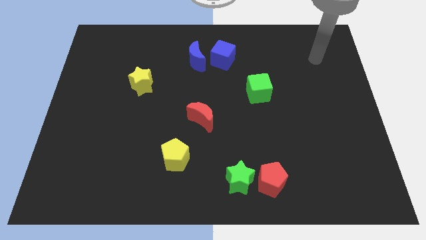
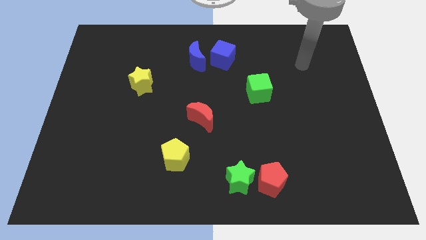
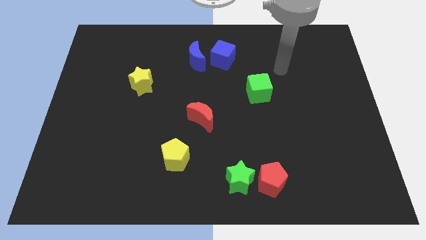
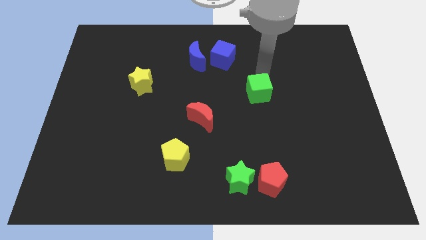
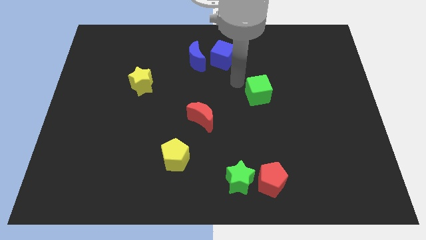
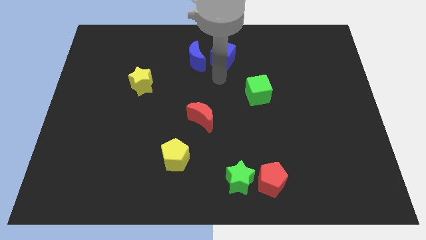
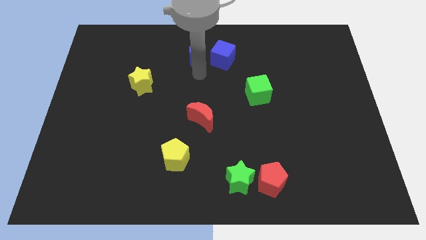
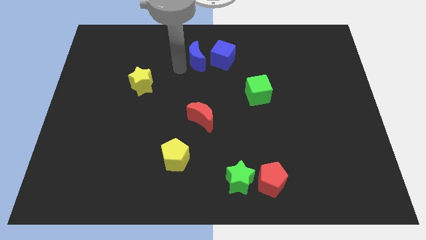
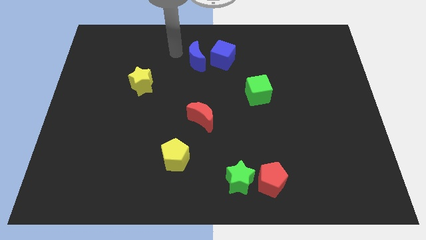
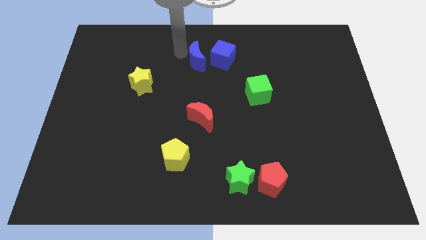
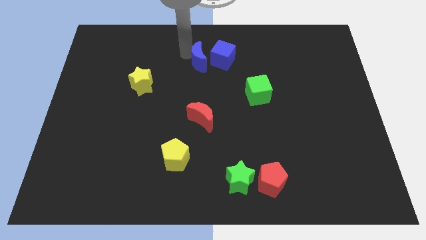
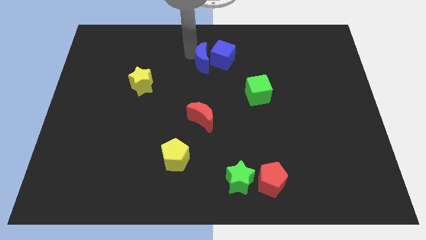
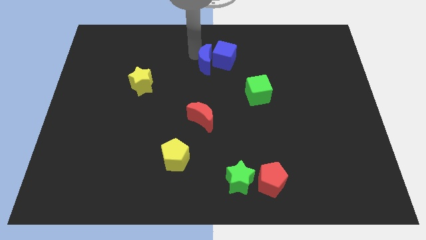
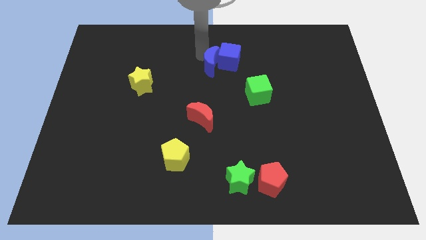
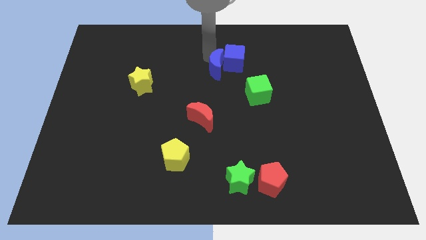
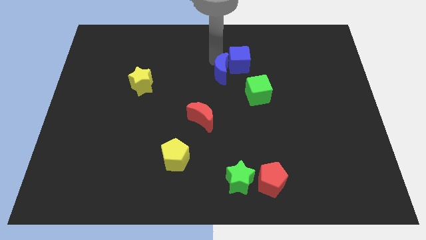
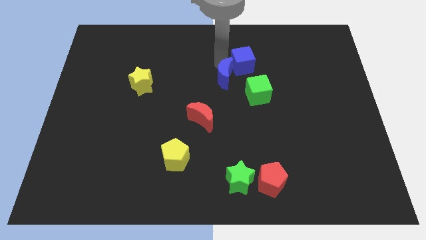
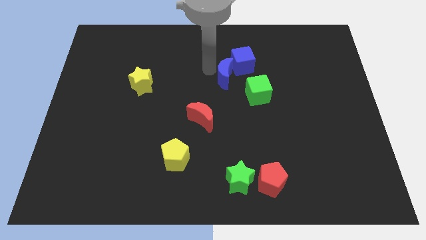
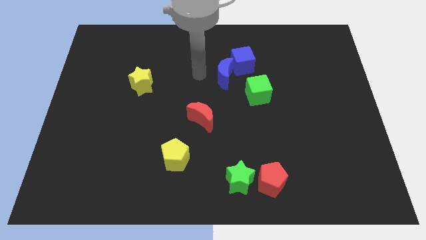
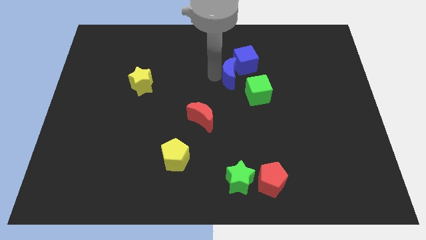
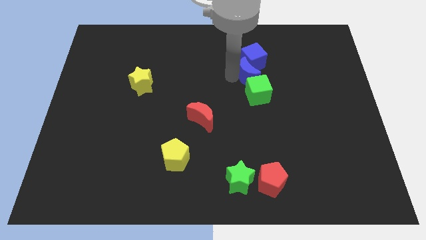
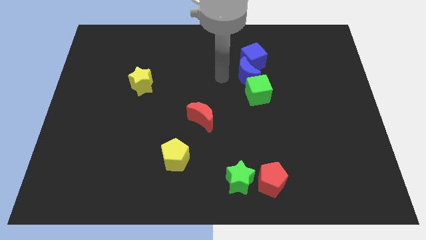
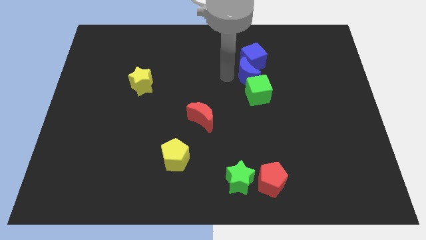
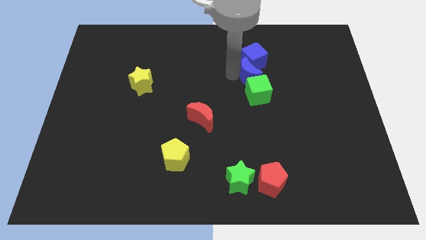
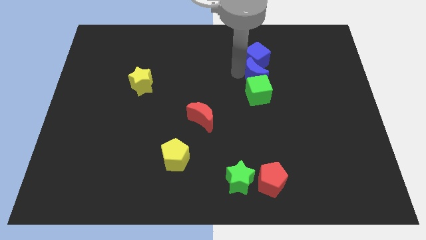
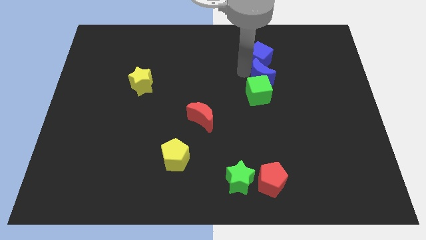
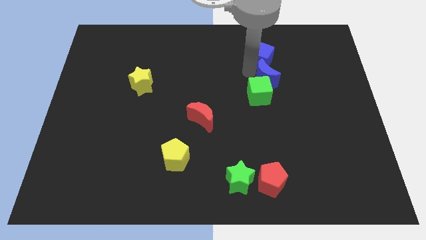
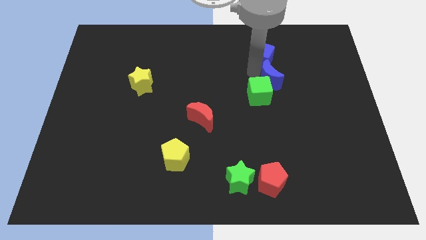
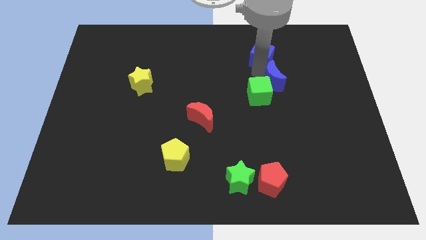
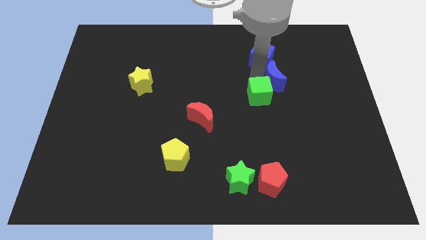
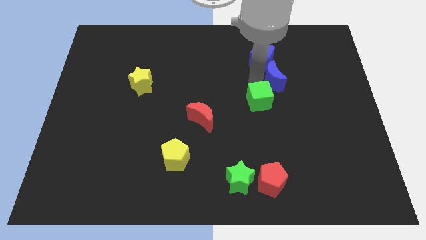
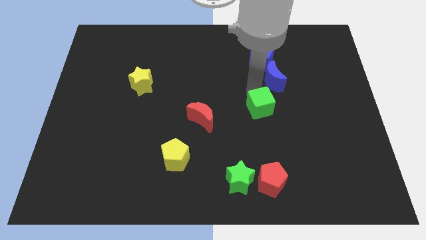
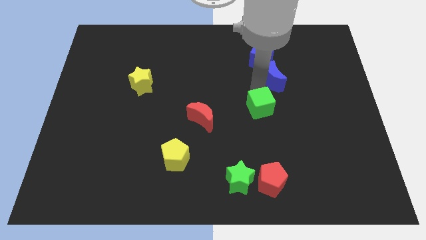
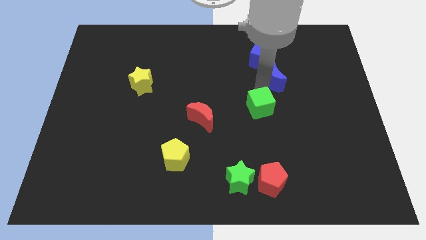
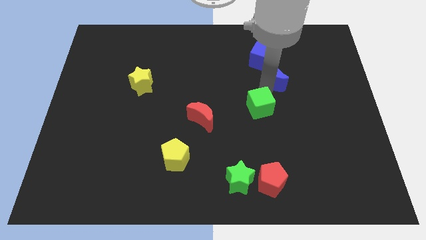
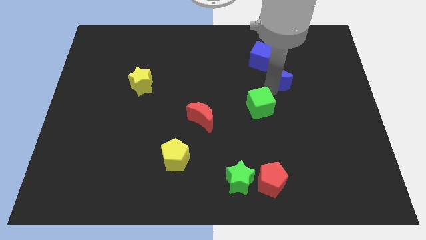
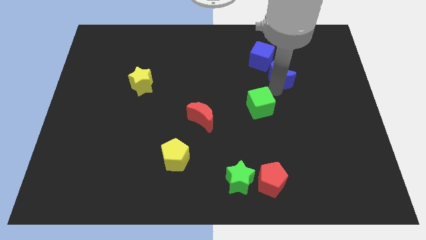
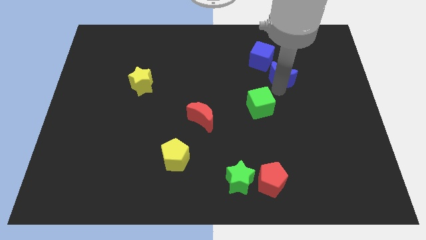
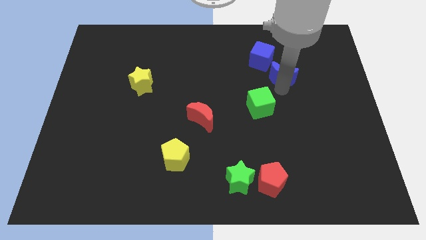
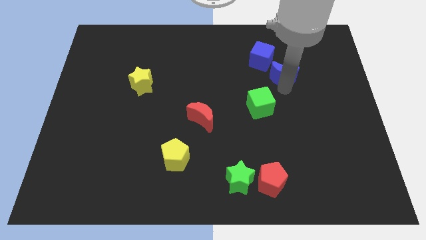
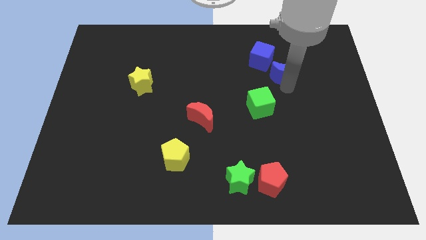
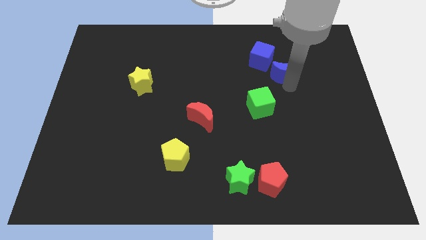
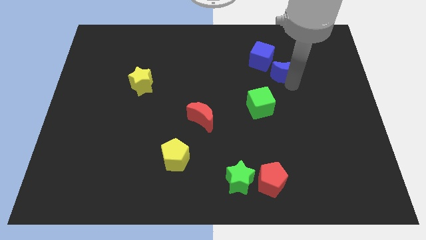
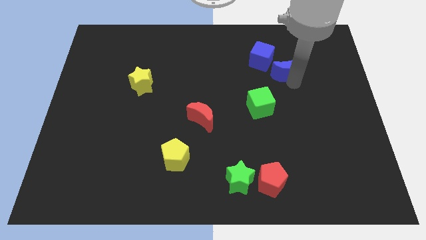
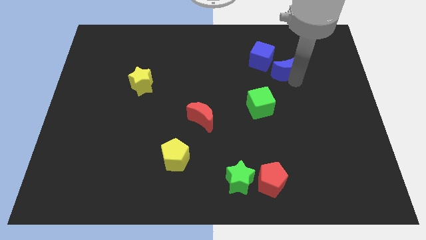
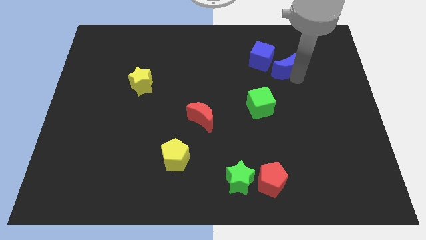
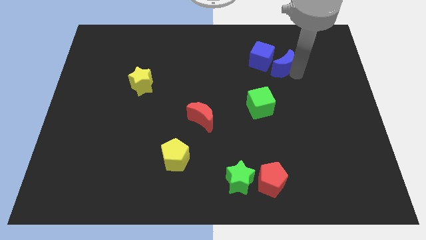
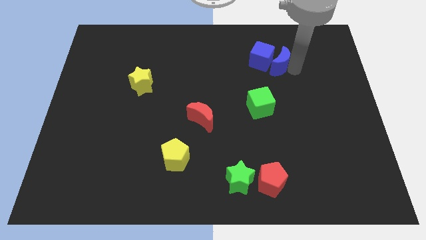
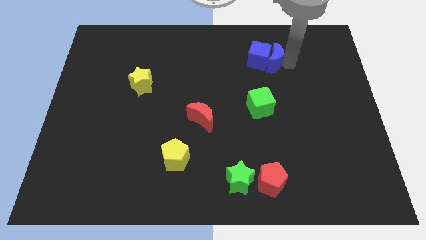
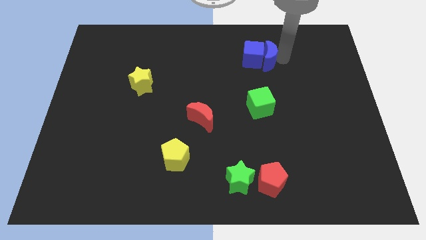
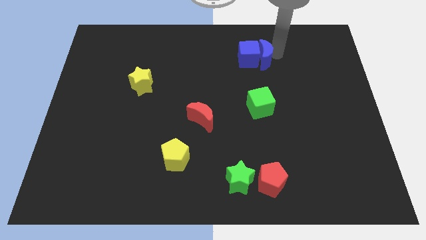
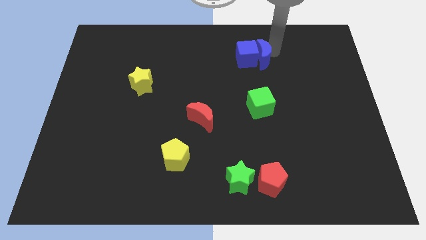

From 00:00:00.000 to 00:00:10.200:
move the blue moon diagonally down and to the right of the blue cube

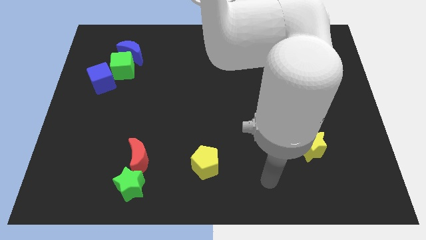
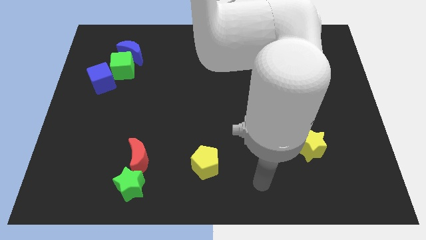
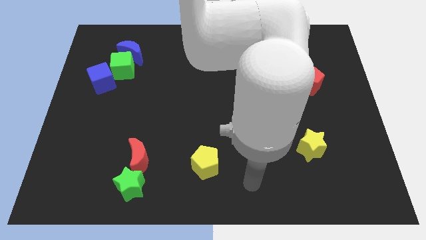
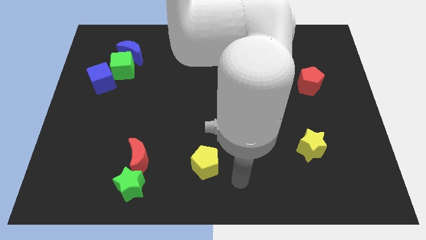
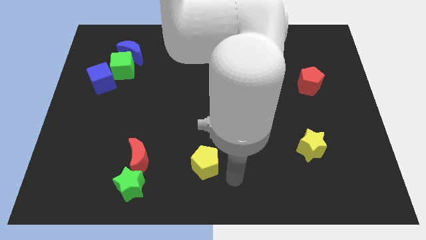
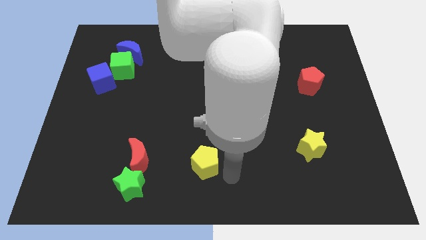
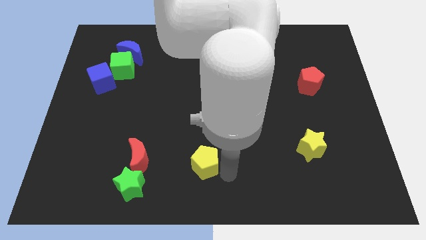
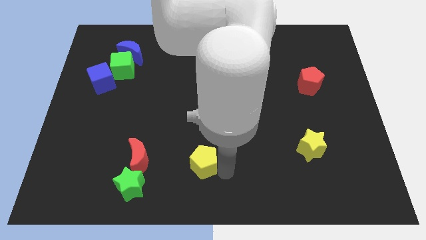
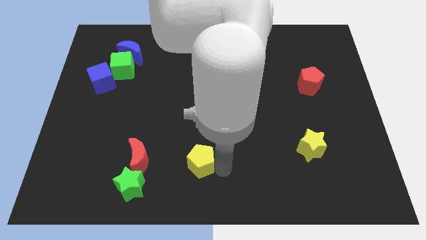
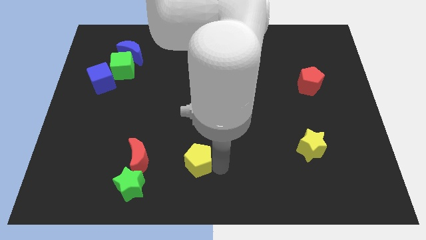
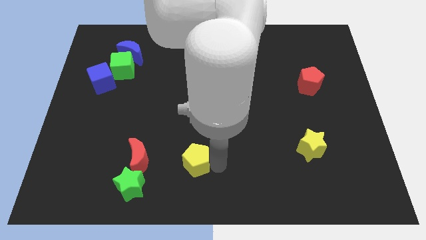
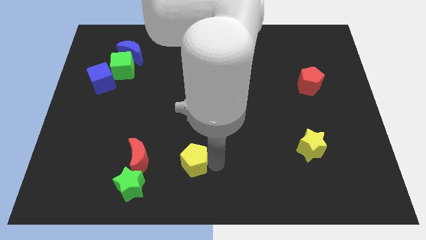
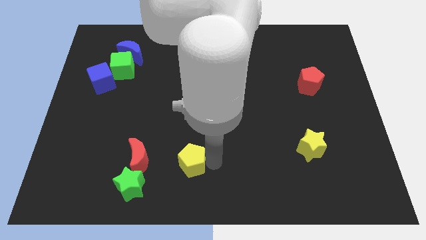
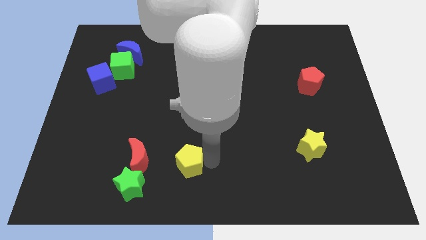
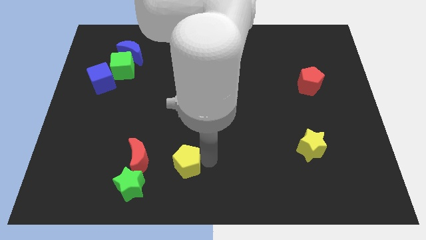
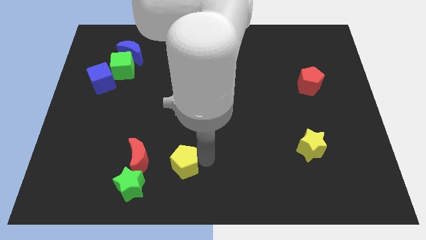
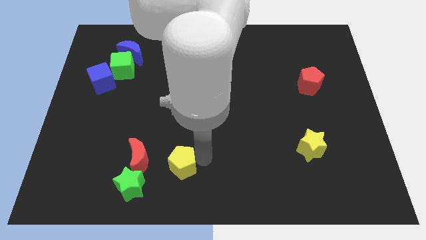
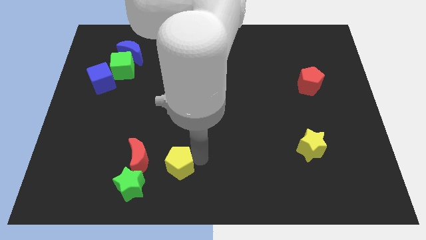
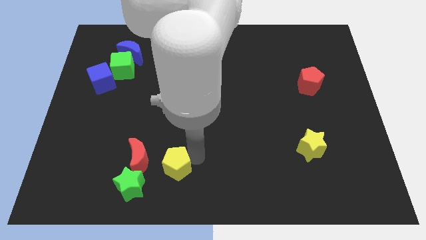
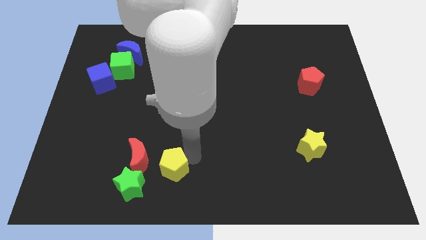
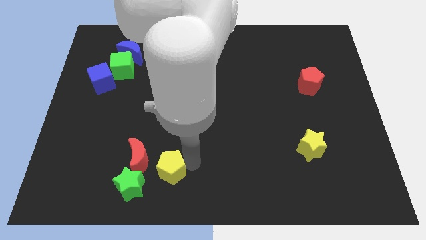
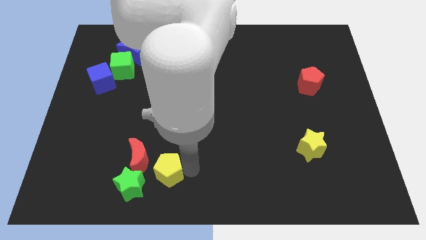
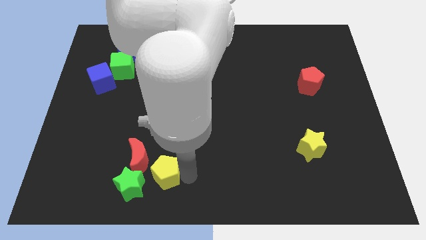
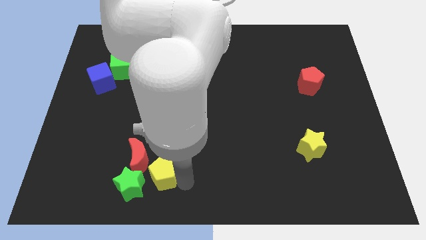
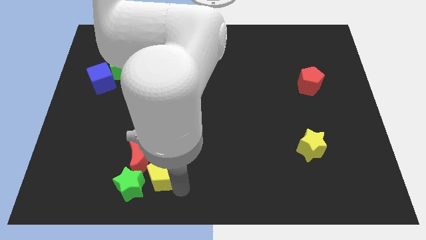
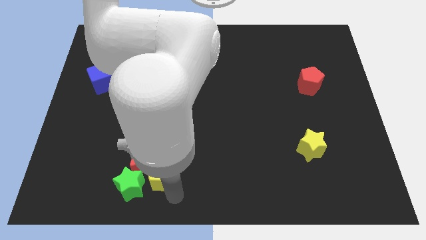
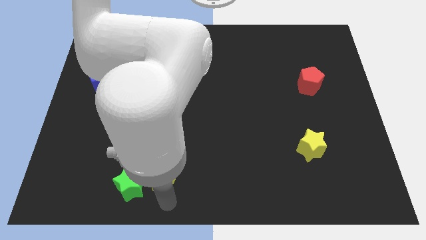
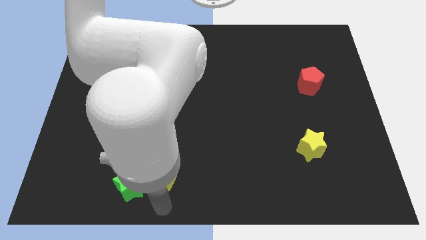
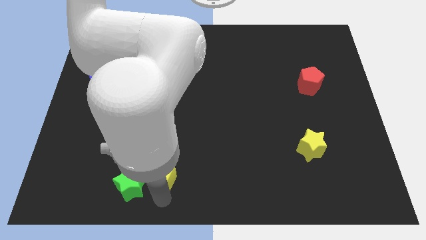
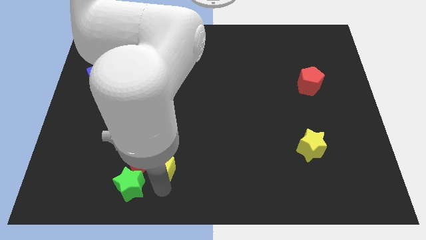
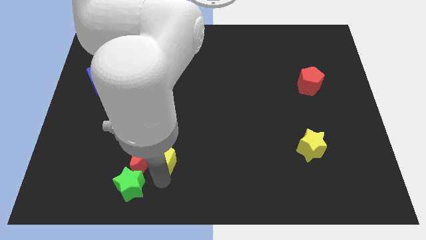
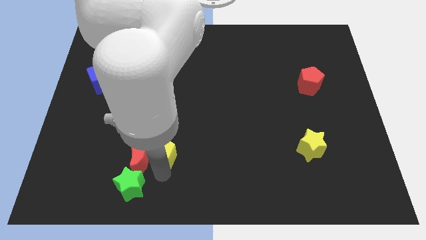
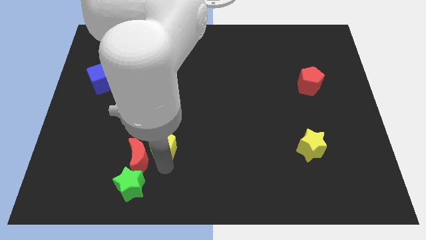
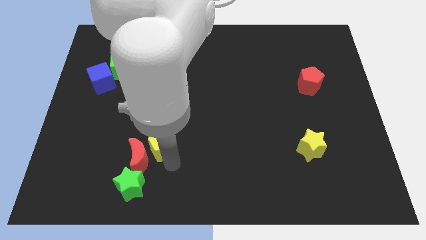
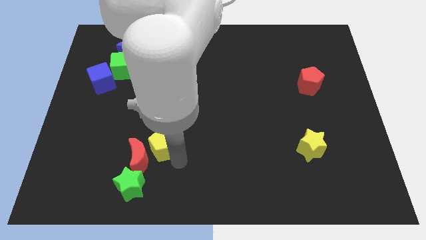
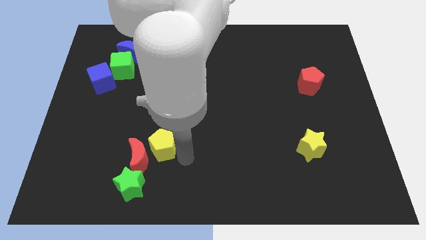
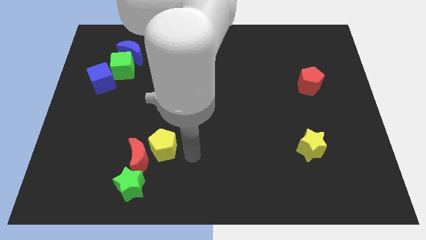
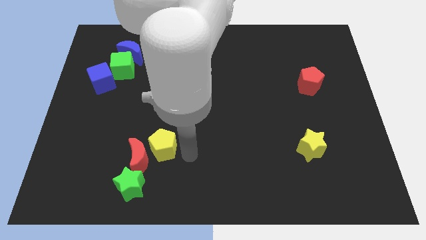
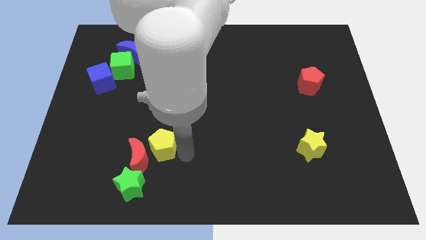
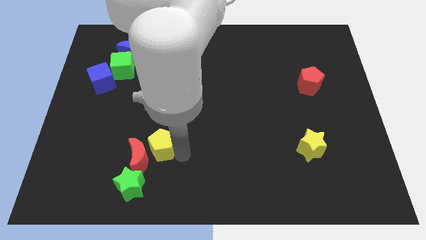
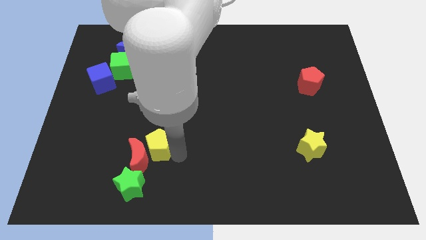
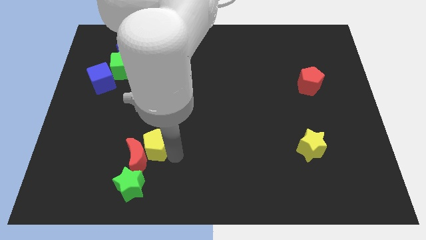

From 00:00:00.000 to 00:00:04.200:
slide the yellow pentagon to the top of the green star
